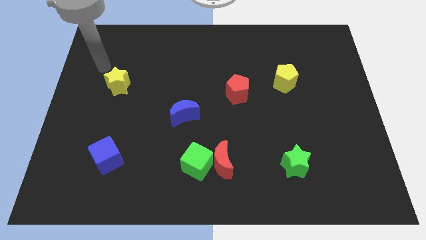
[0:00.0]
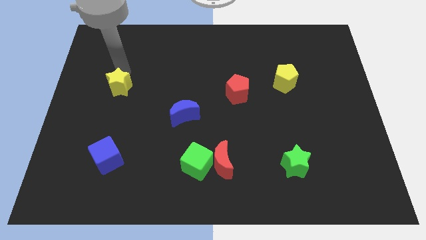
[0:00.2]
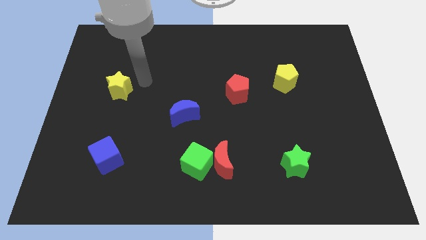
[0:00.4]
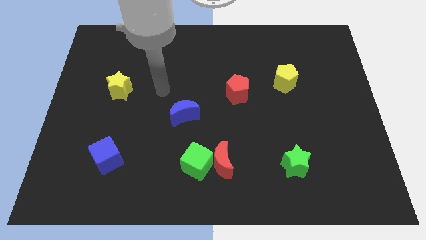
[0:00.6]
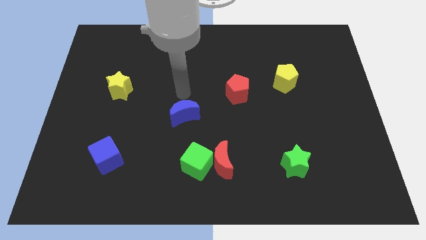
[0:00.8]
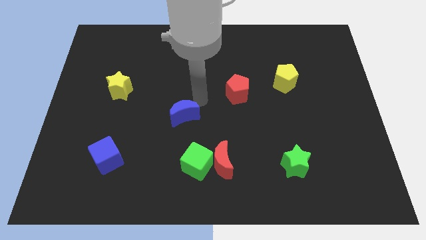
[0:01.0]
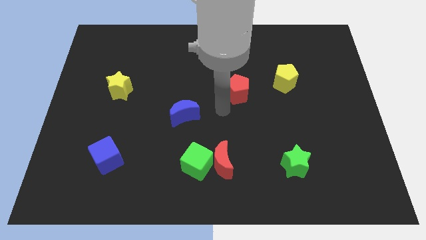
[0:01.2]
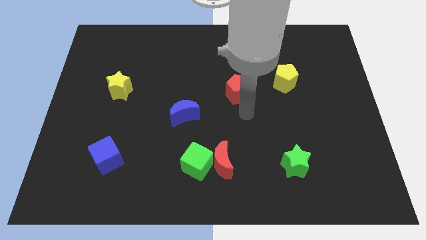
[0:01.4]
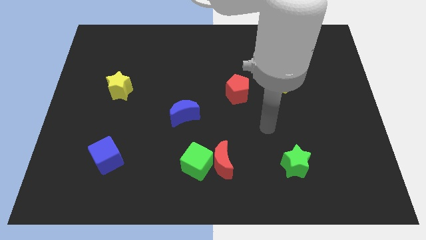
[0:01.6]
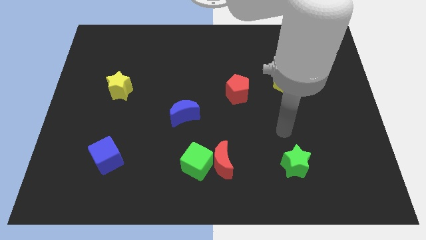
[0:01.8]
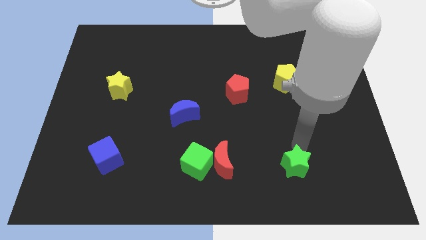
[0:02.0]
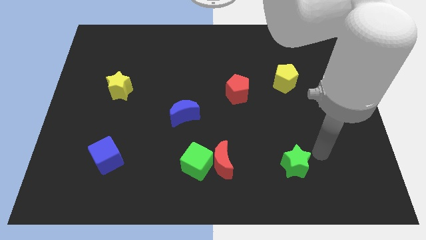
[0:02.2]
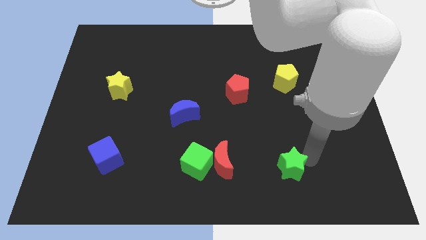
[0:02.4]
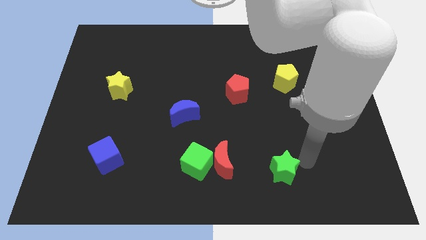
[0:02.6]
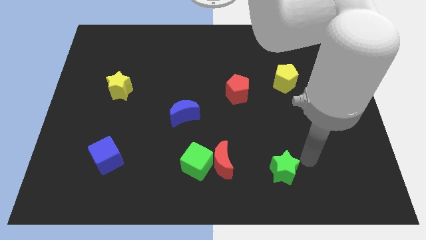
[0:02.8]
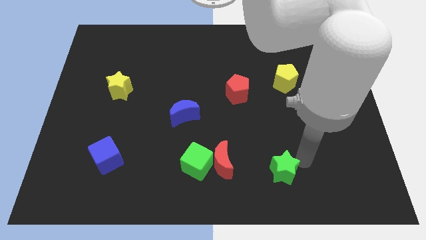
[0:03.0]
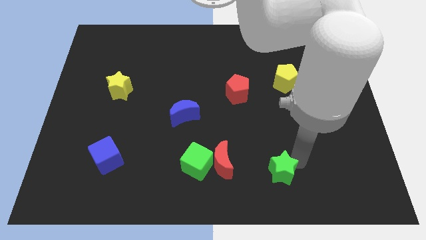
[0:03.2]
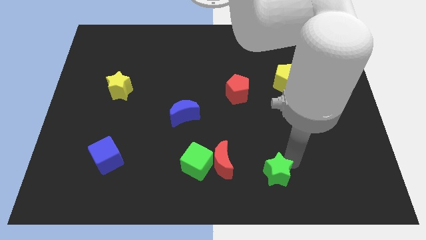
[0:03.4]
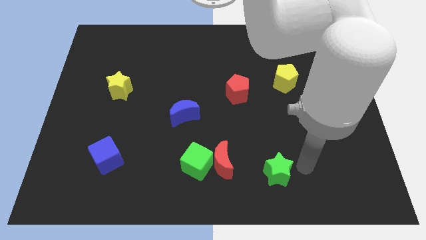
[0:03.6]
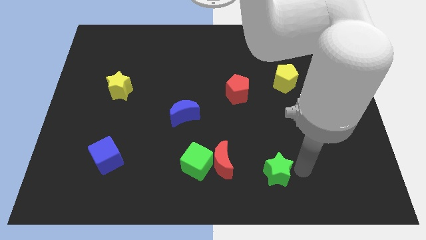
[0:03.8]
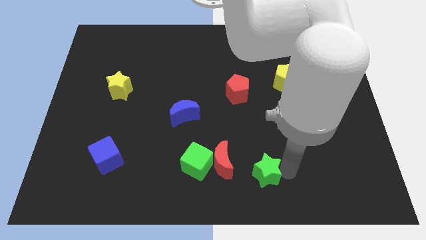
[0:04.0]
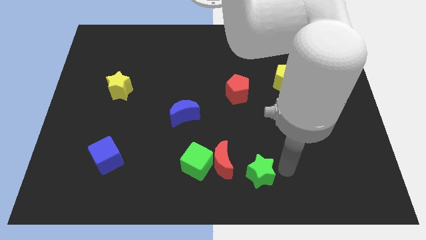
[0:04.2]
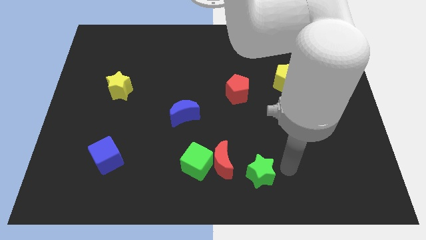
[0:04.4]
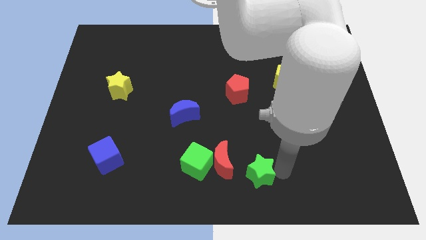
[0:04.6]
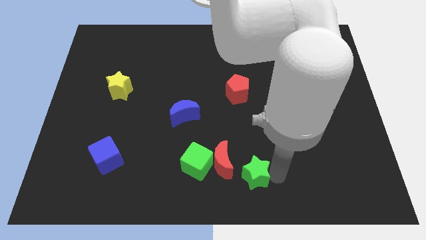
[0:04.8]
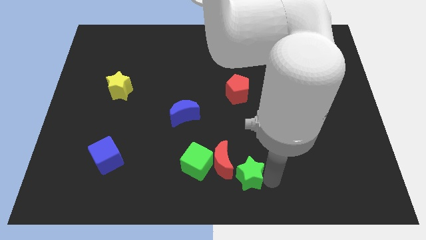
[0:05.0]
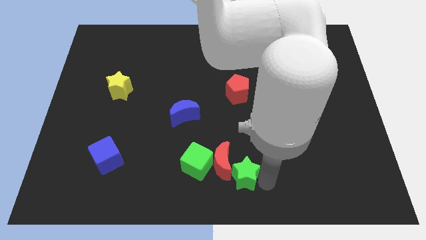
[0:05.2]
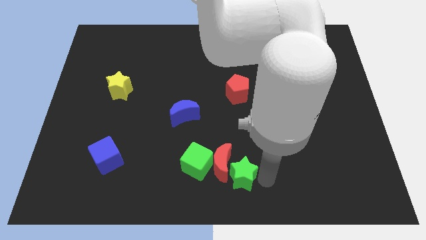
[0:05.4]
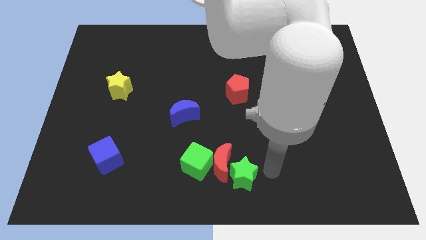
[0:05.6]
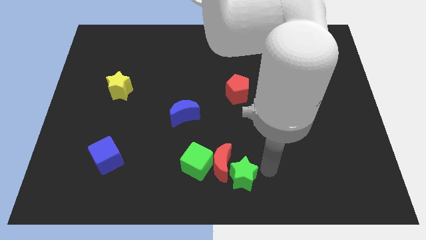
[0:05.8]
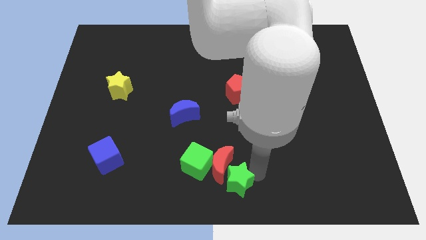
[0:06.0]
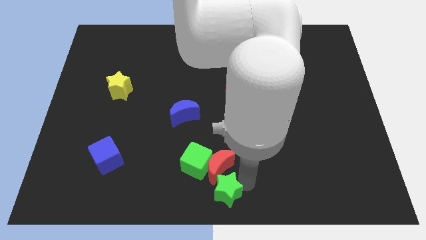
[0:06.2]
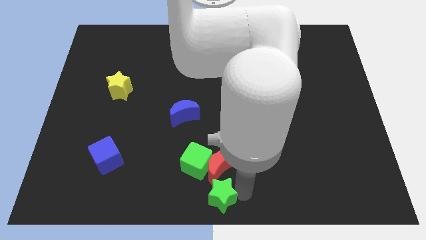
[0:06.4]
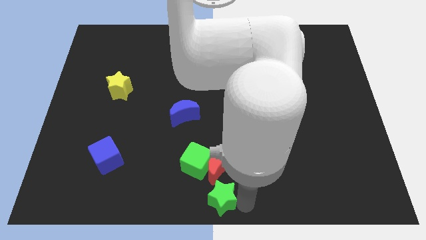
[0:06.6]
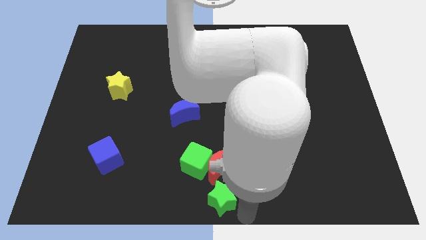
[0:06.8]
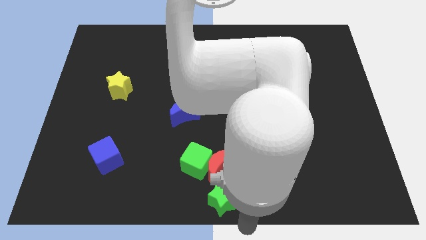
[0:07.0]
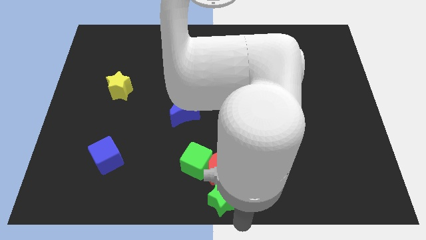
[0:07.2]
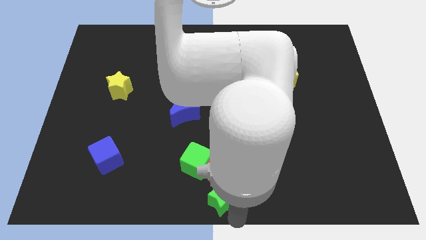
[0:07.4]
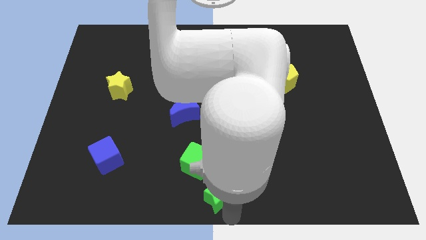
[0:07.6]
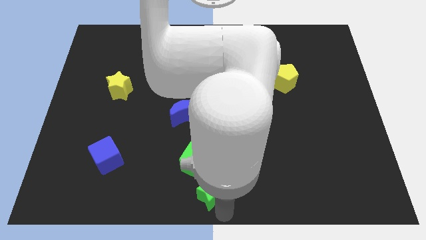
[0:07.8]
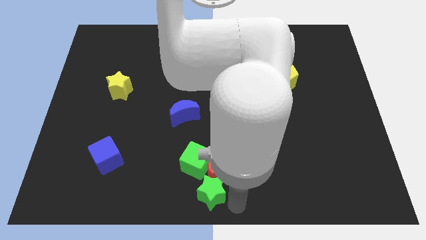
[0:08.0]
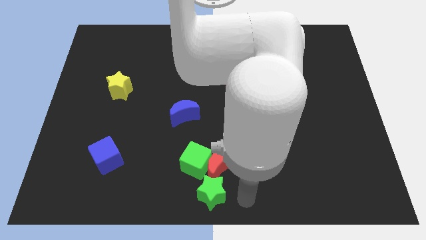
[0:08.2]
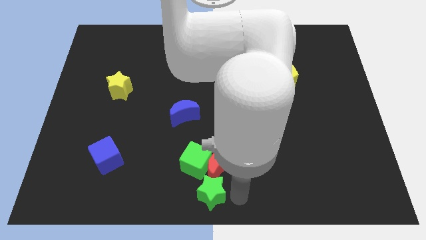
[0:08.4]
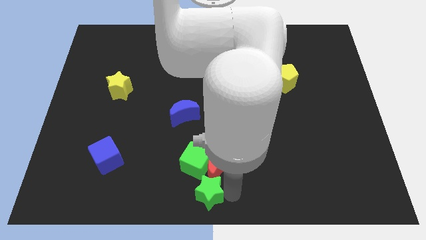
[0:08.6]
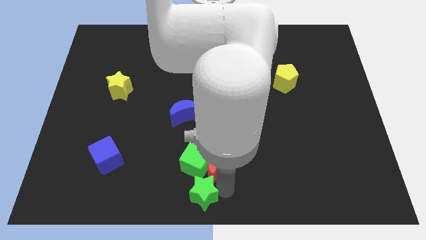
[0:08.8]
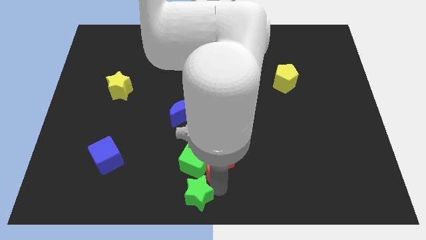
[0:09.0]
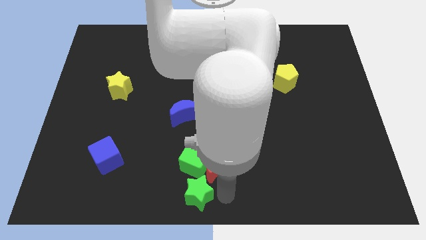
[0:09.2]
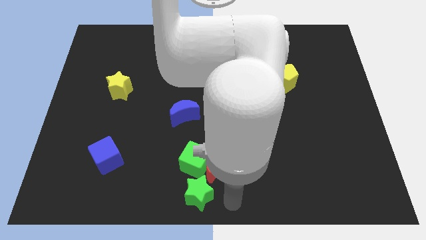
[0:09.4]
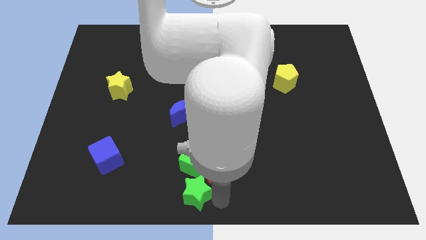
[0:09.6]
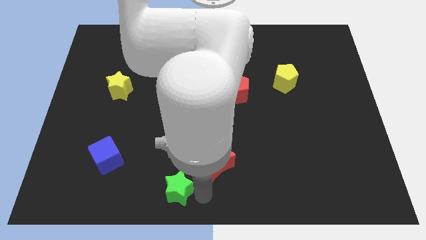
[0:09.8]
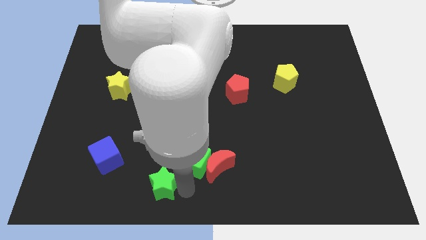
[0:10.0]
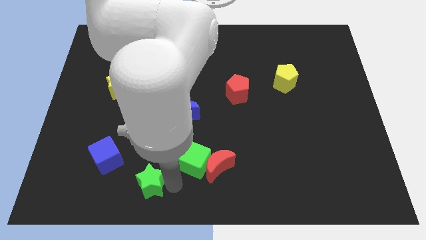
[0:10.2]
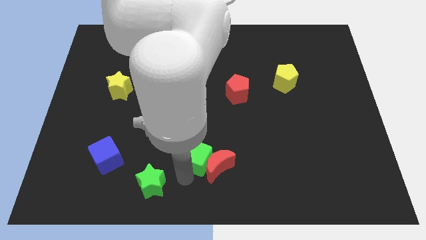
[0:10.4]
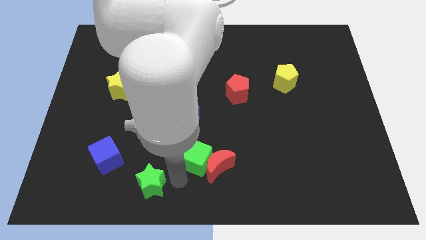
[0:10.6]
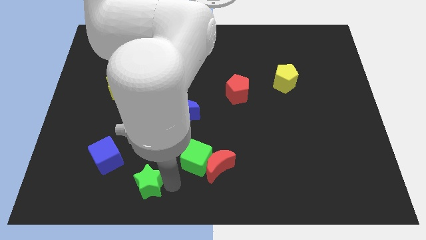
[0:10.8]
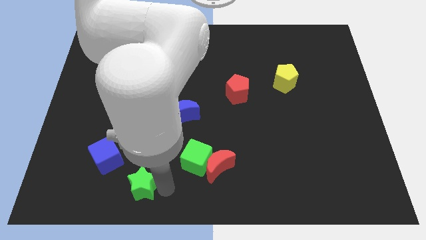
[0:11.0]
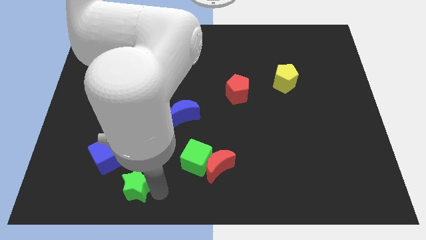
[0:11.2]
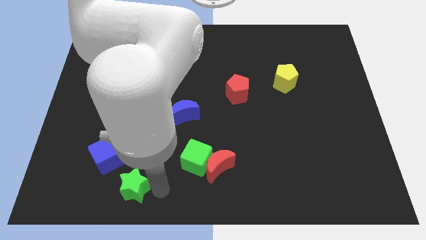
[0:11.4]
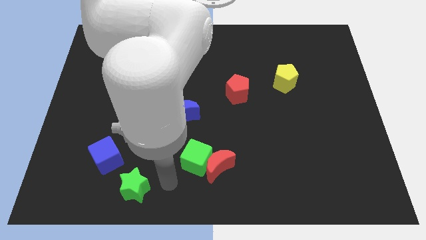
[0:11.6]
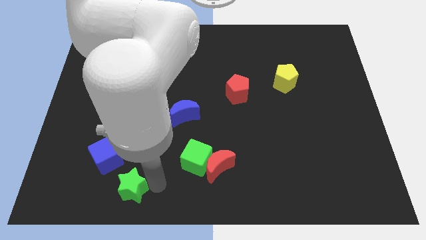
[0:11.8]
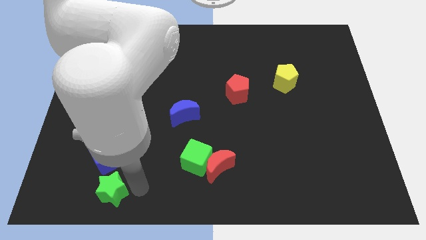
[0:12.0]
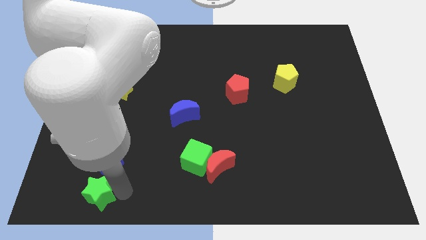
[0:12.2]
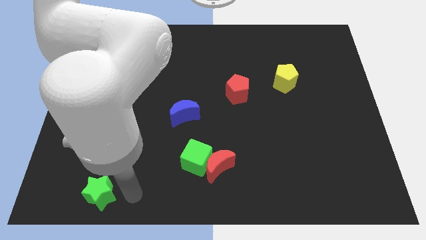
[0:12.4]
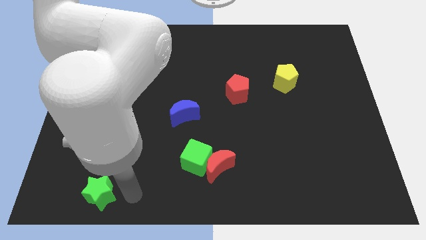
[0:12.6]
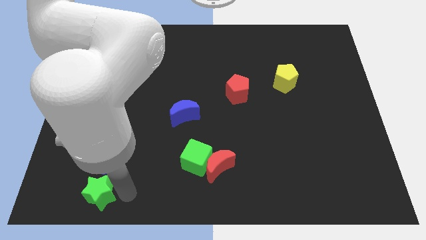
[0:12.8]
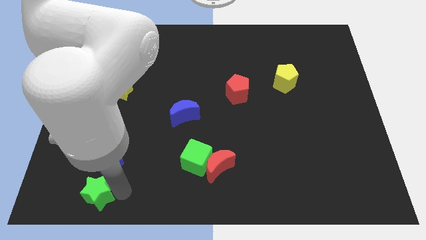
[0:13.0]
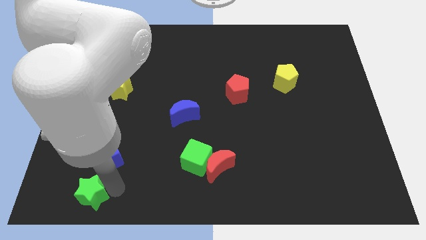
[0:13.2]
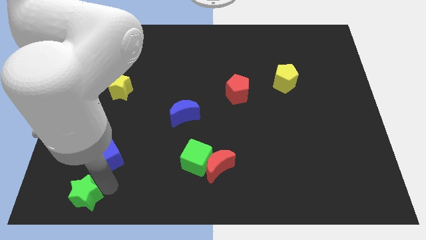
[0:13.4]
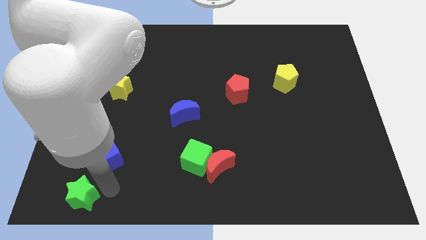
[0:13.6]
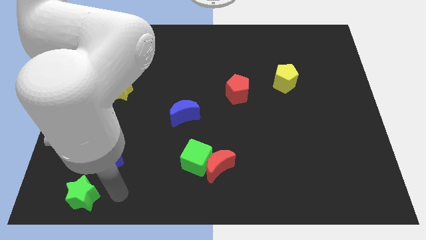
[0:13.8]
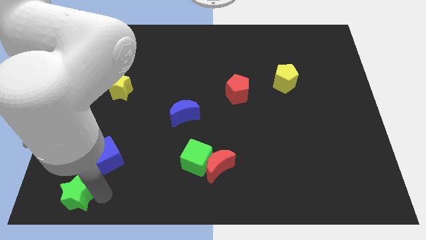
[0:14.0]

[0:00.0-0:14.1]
push the green star to the bottom left
